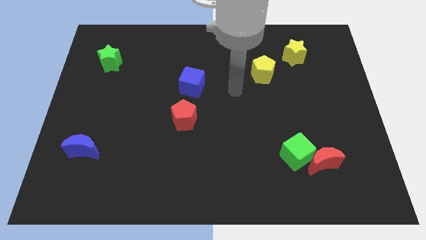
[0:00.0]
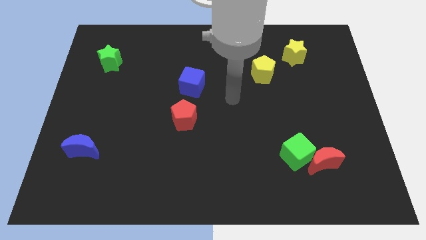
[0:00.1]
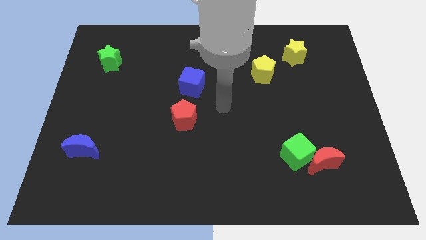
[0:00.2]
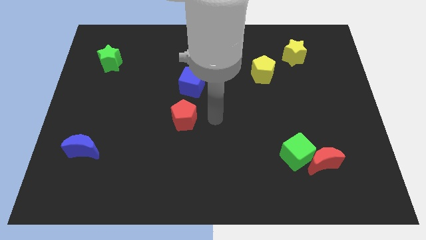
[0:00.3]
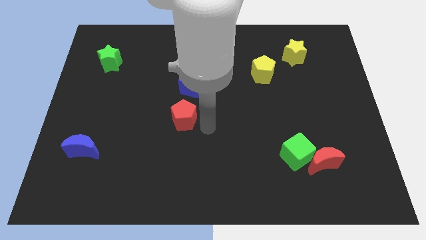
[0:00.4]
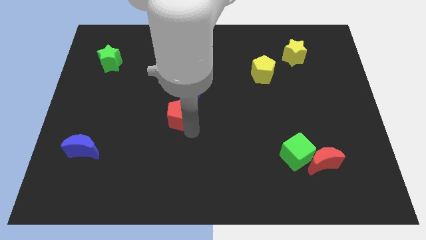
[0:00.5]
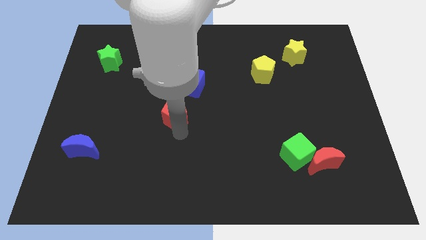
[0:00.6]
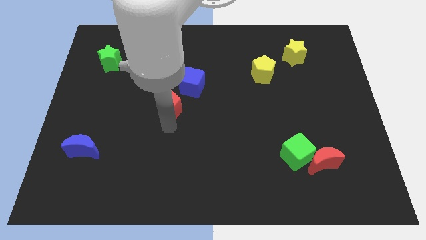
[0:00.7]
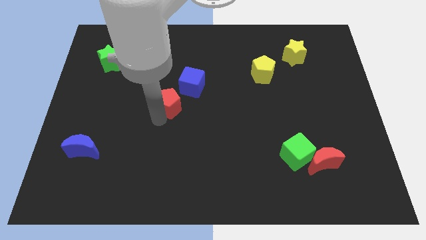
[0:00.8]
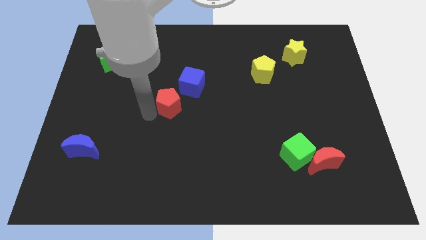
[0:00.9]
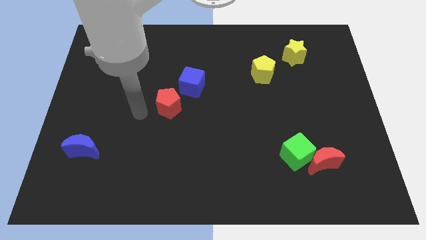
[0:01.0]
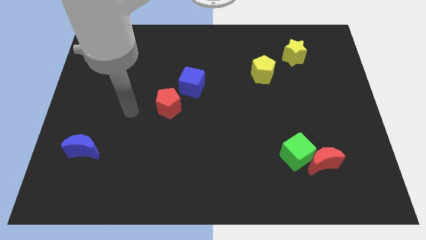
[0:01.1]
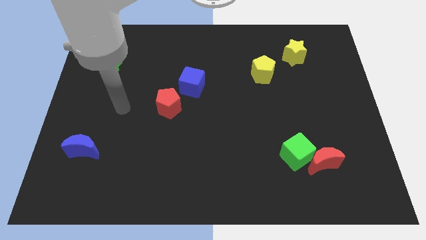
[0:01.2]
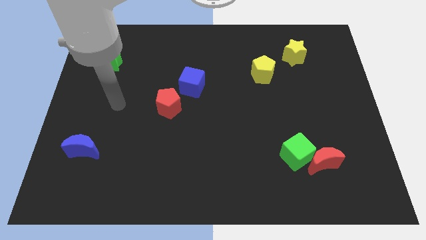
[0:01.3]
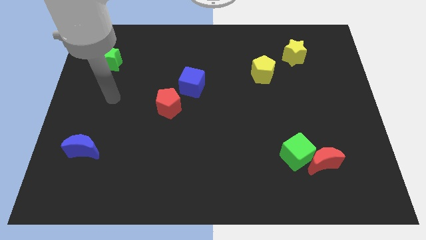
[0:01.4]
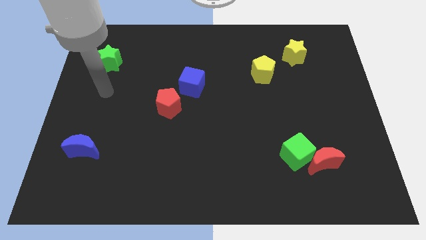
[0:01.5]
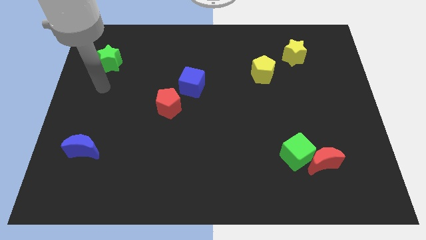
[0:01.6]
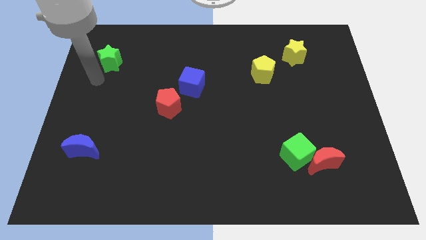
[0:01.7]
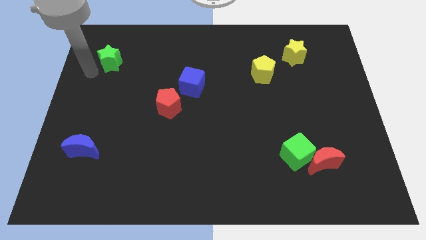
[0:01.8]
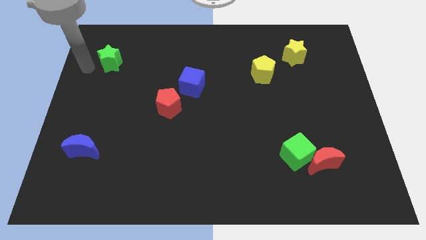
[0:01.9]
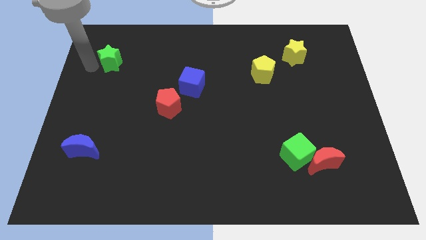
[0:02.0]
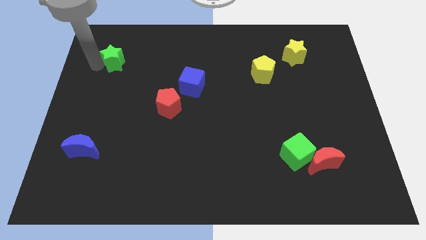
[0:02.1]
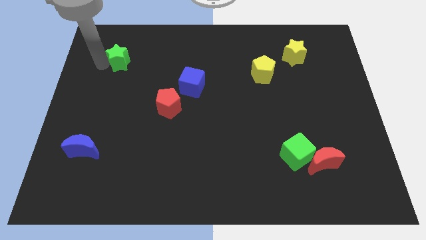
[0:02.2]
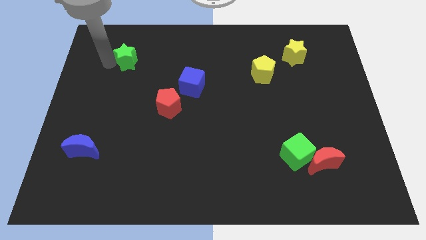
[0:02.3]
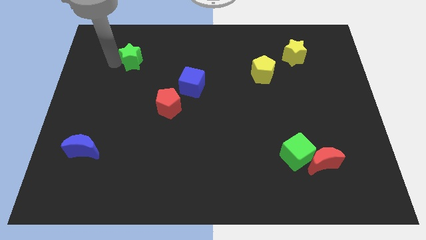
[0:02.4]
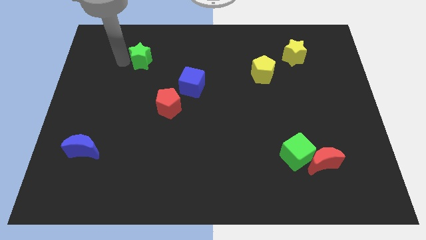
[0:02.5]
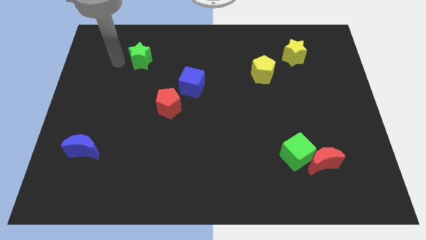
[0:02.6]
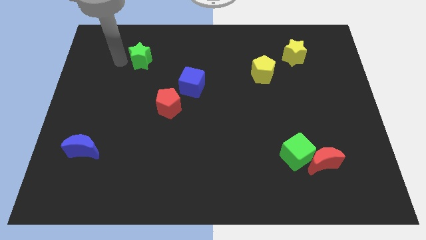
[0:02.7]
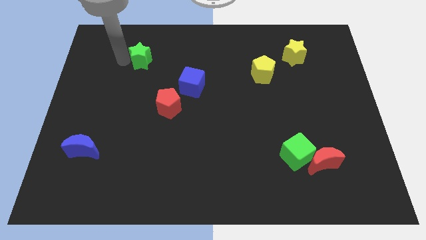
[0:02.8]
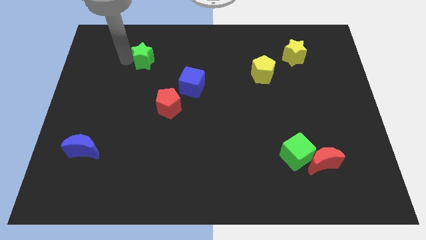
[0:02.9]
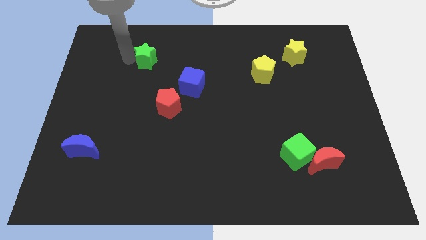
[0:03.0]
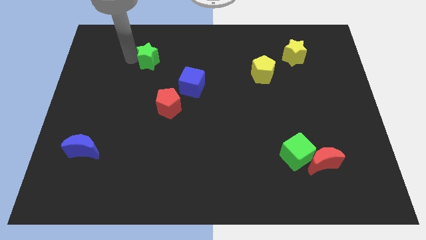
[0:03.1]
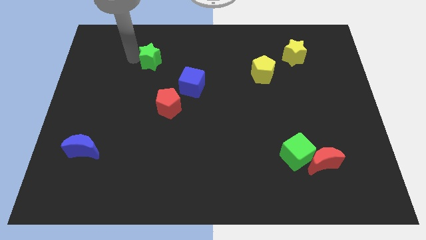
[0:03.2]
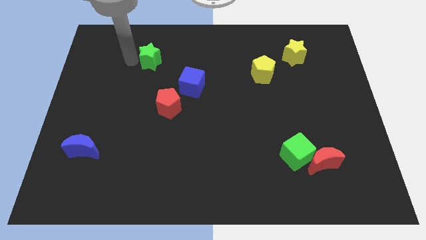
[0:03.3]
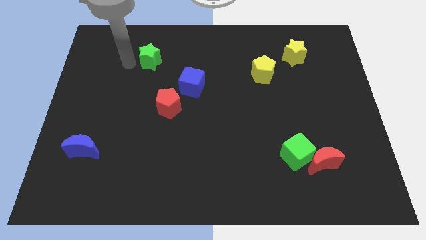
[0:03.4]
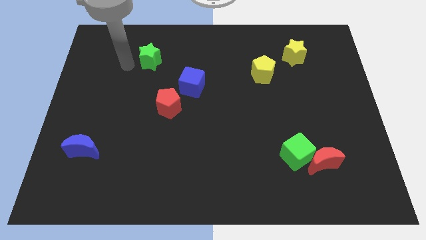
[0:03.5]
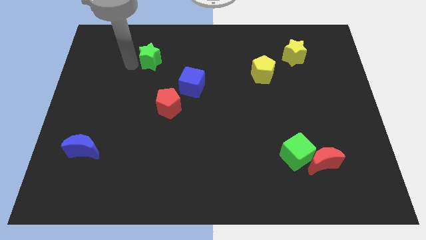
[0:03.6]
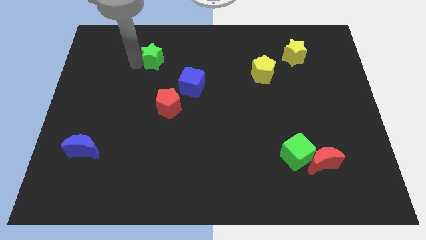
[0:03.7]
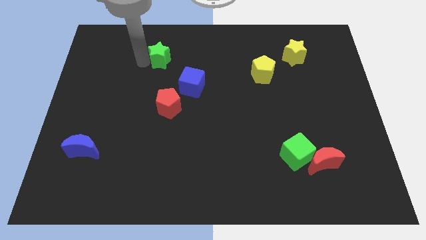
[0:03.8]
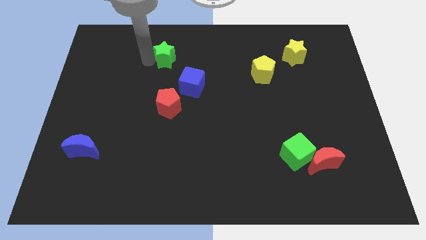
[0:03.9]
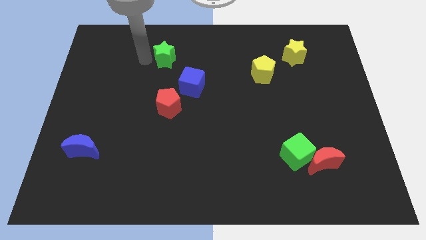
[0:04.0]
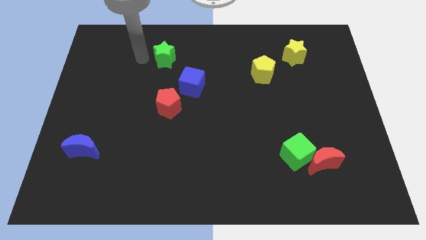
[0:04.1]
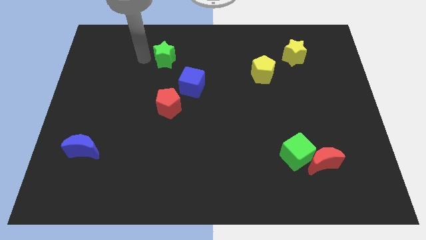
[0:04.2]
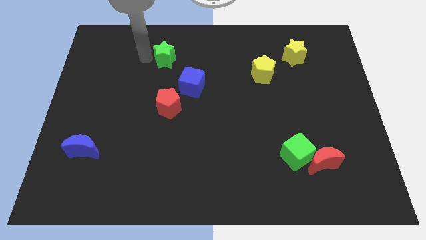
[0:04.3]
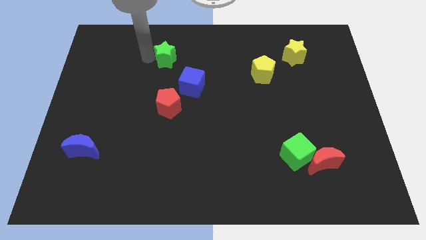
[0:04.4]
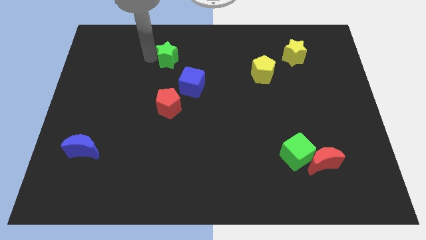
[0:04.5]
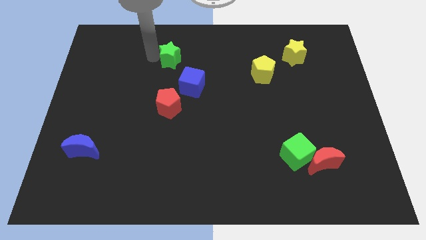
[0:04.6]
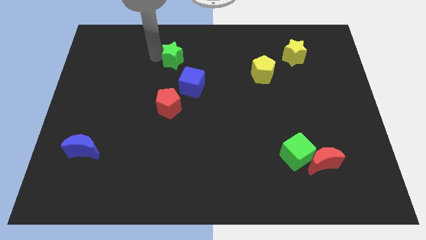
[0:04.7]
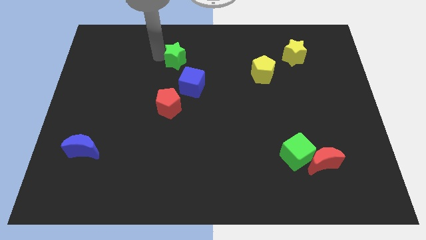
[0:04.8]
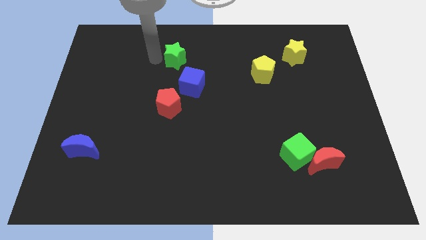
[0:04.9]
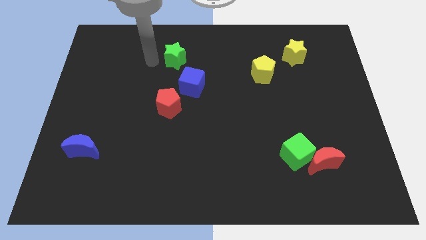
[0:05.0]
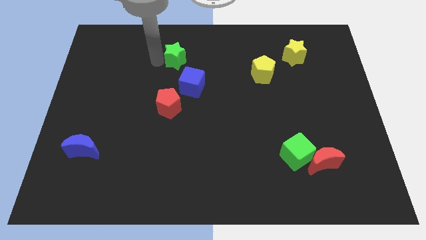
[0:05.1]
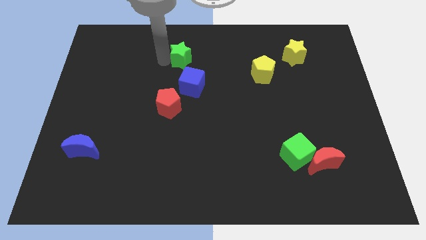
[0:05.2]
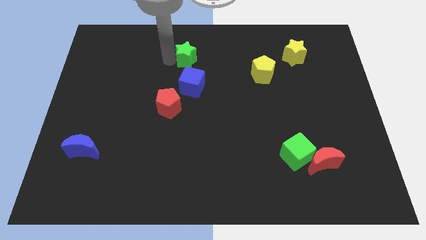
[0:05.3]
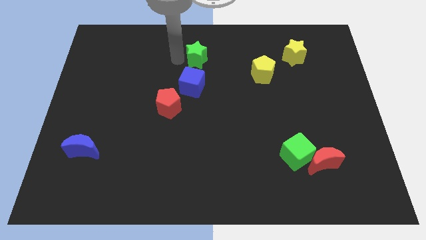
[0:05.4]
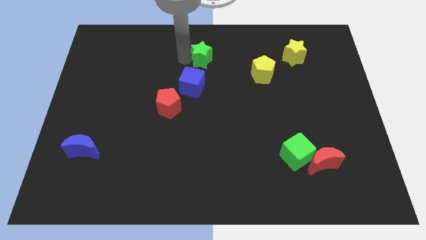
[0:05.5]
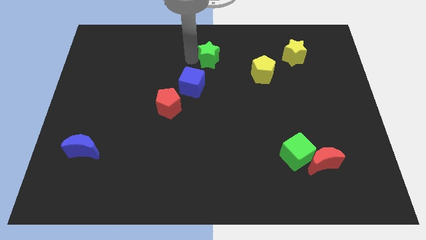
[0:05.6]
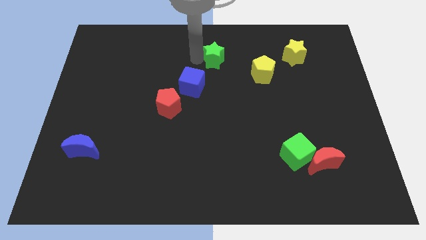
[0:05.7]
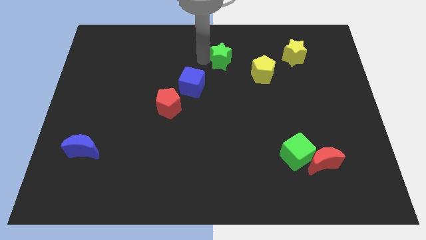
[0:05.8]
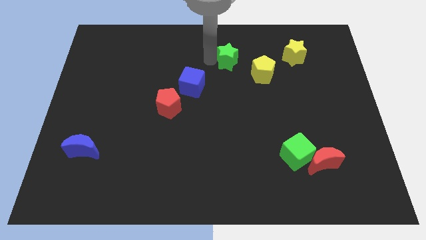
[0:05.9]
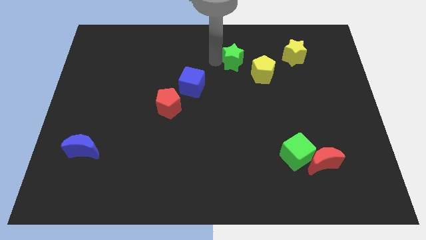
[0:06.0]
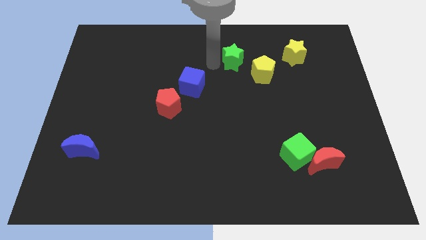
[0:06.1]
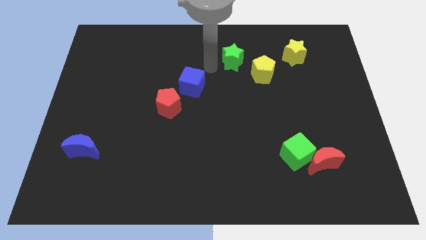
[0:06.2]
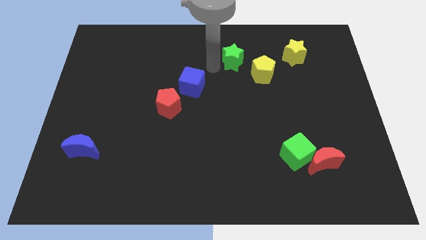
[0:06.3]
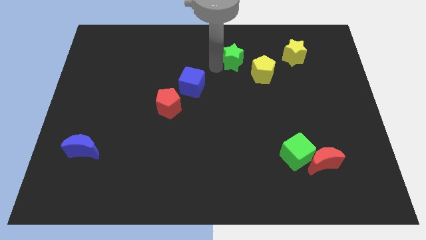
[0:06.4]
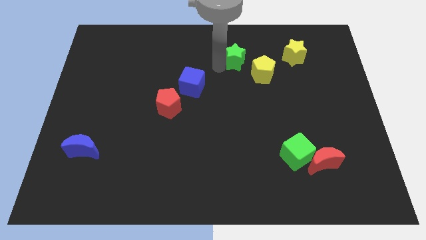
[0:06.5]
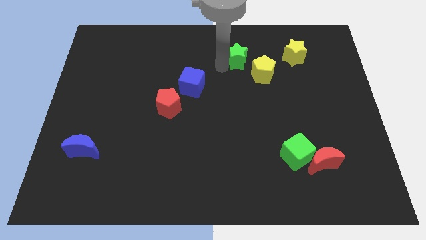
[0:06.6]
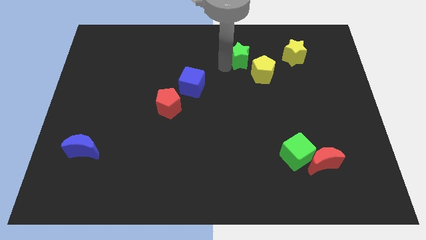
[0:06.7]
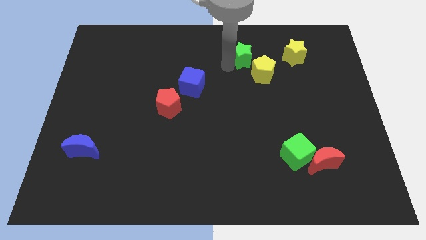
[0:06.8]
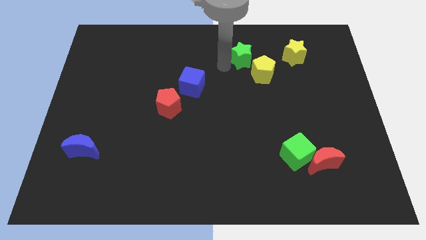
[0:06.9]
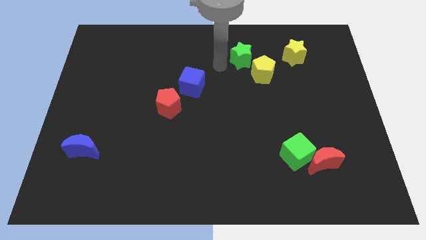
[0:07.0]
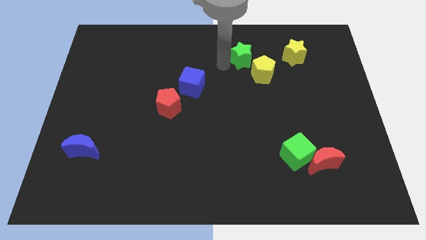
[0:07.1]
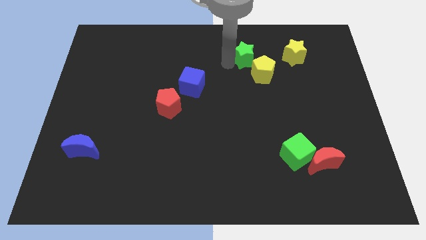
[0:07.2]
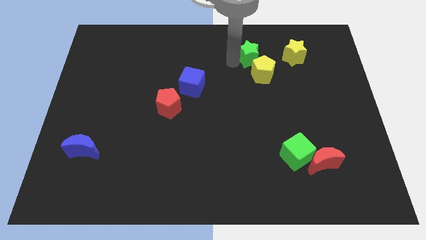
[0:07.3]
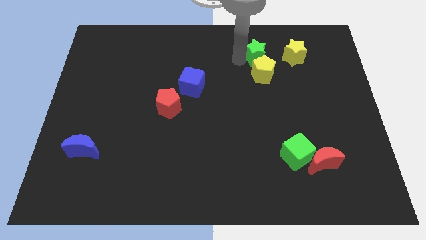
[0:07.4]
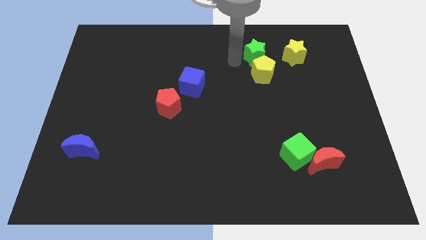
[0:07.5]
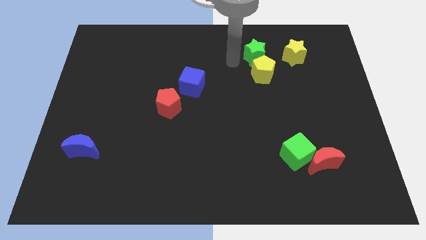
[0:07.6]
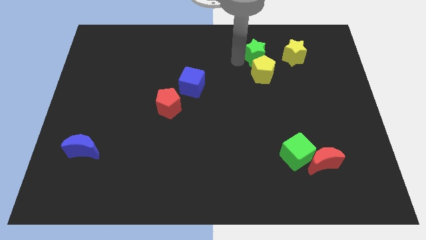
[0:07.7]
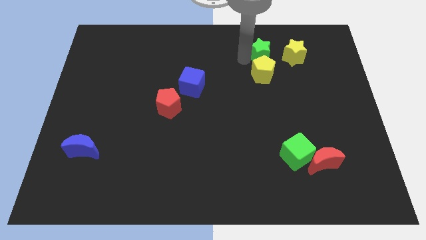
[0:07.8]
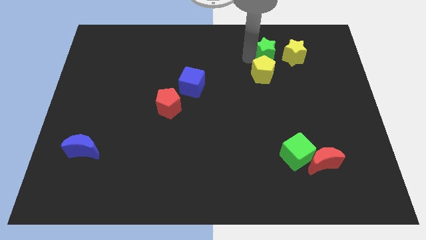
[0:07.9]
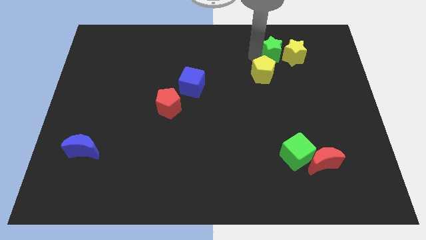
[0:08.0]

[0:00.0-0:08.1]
slide the green star close to the yellow star

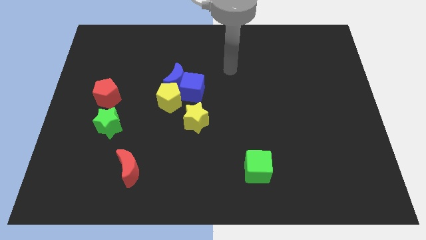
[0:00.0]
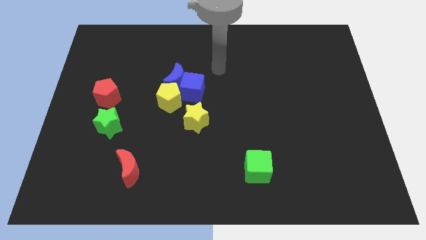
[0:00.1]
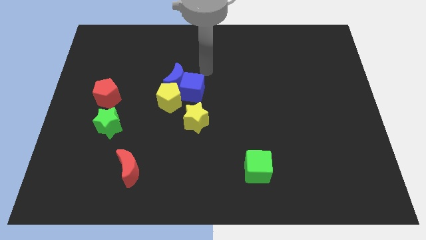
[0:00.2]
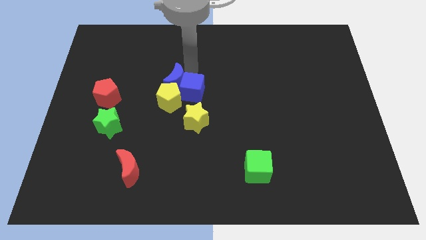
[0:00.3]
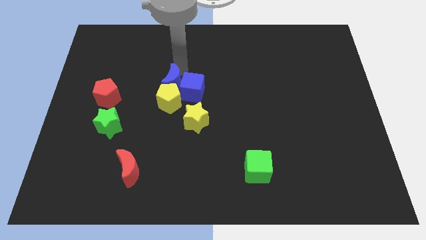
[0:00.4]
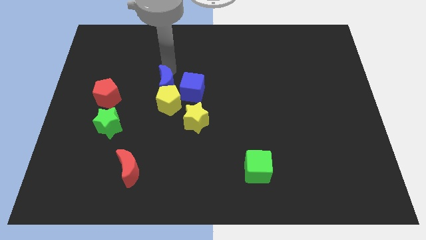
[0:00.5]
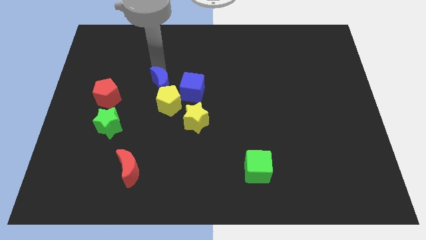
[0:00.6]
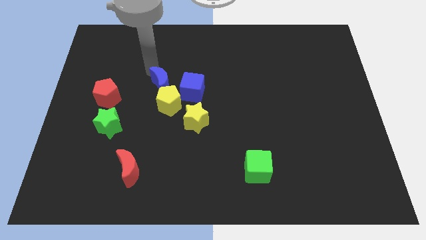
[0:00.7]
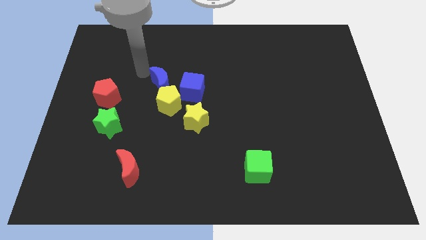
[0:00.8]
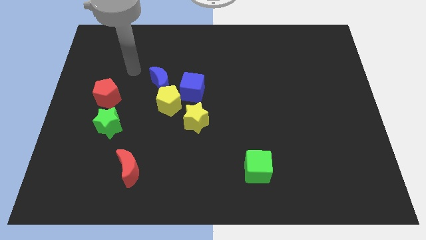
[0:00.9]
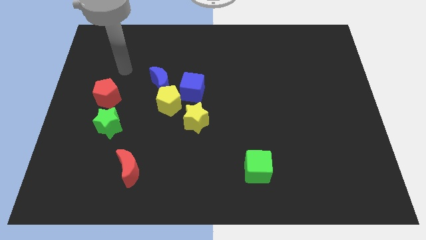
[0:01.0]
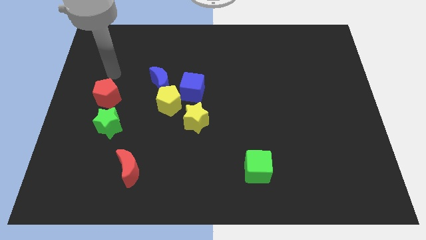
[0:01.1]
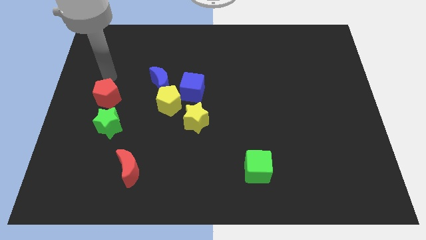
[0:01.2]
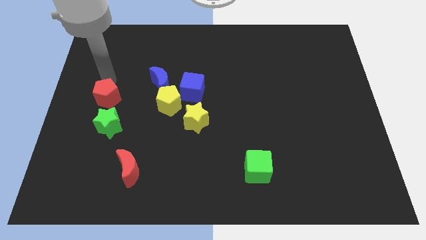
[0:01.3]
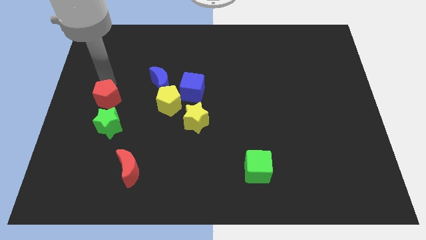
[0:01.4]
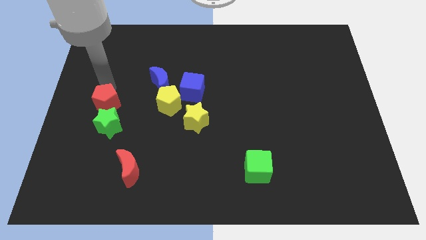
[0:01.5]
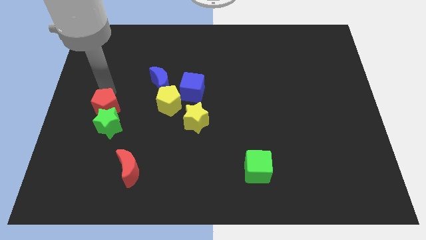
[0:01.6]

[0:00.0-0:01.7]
slide the red pentagon close to the green star
